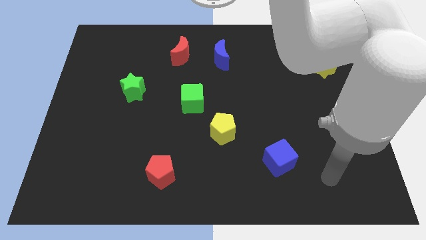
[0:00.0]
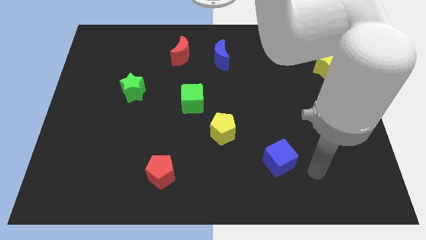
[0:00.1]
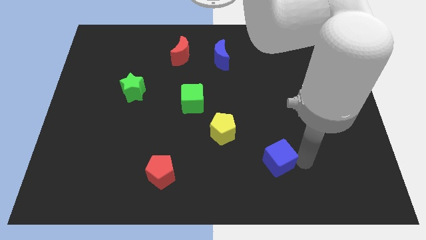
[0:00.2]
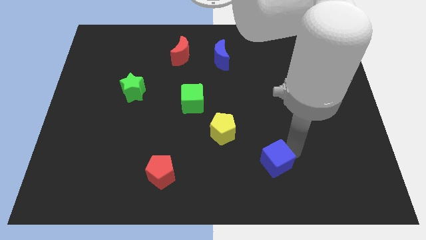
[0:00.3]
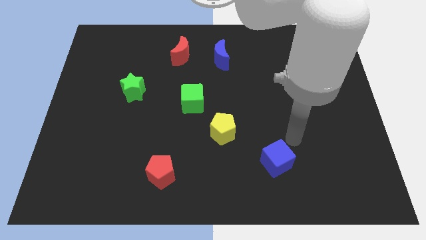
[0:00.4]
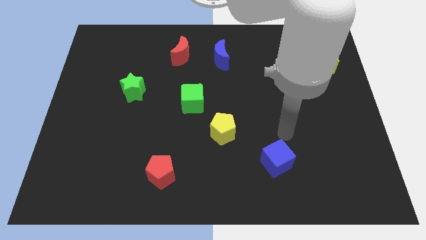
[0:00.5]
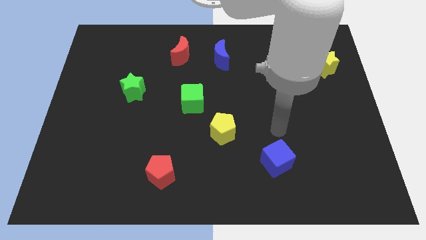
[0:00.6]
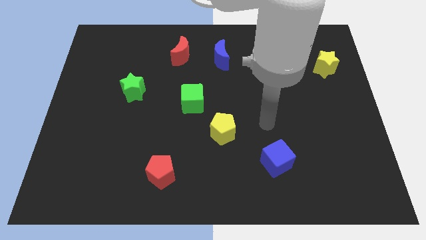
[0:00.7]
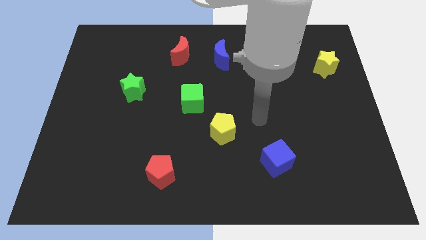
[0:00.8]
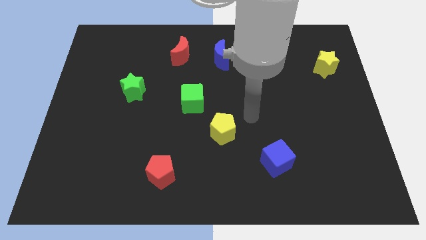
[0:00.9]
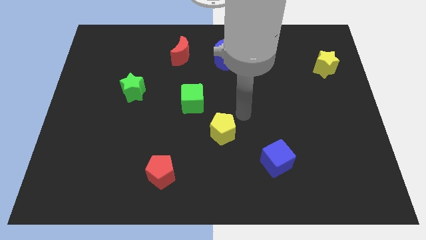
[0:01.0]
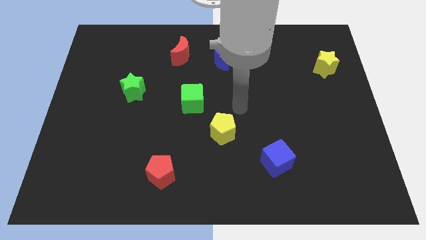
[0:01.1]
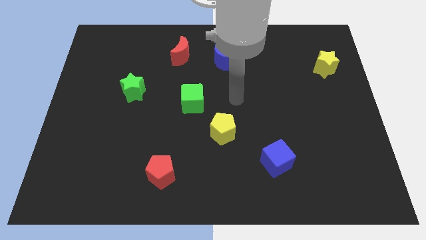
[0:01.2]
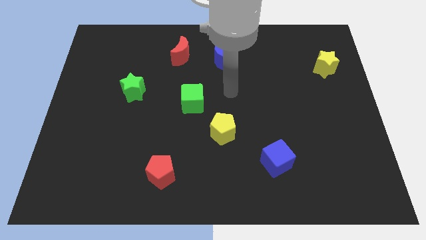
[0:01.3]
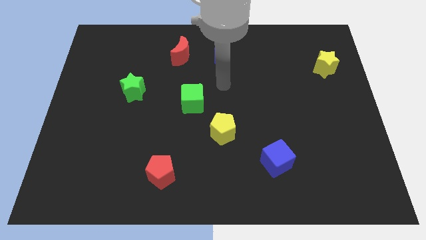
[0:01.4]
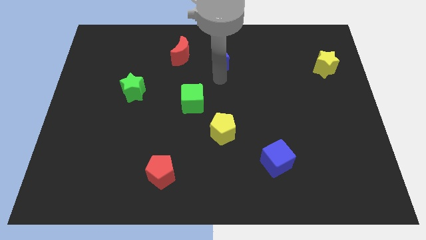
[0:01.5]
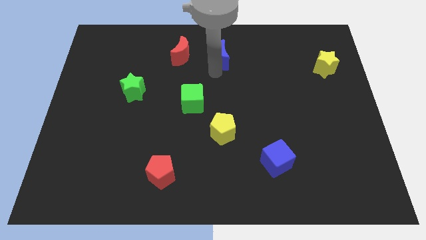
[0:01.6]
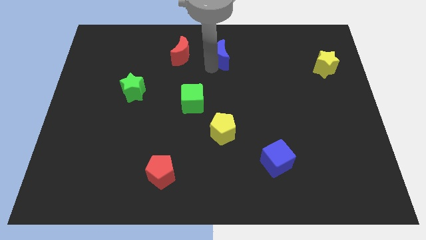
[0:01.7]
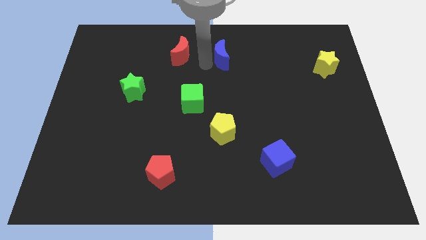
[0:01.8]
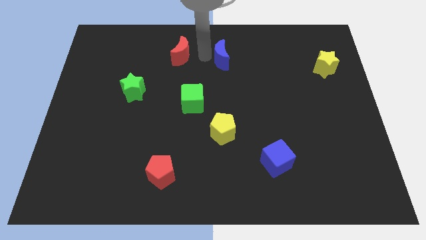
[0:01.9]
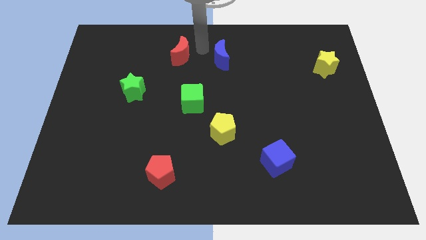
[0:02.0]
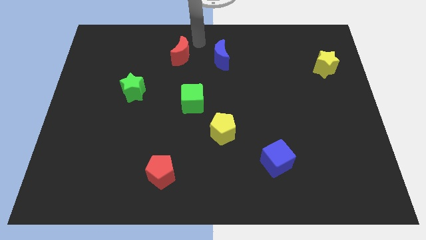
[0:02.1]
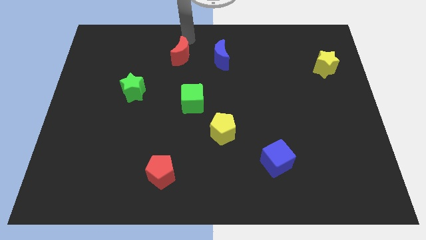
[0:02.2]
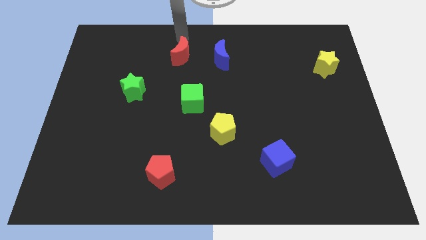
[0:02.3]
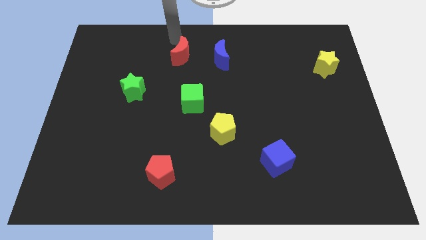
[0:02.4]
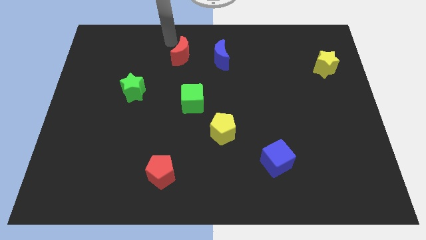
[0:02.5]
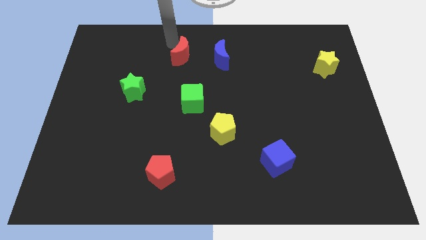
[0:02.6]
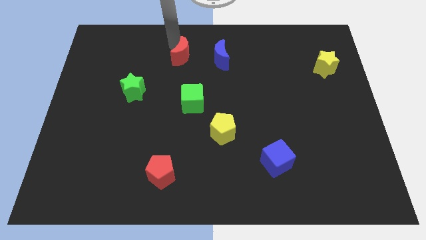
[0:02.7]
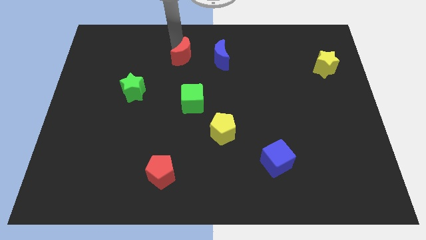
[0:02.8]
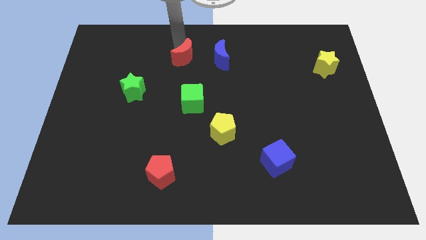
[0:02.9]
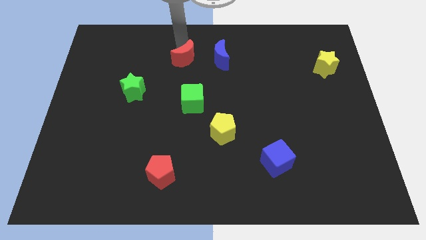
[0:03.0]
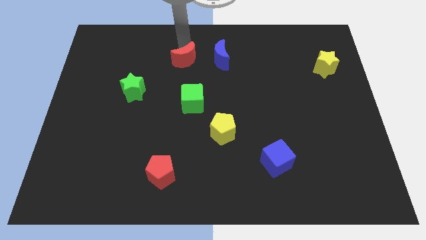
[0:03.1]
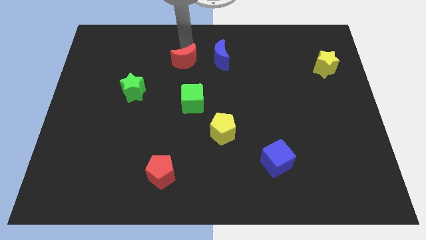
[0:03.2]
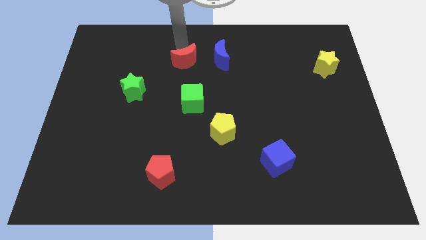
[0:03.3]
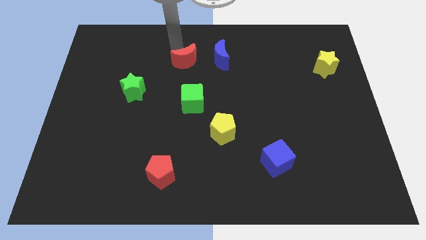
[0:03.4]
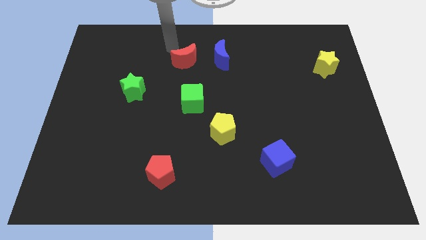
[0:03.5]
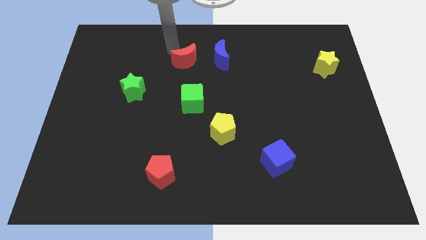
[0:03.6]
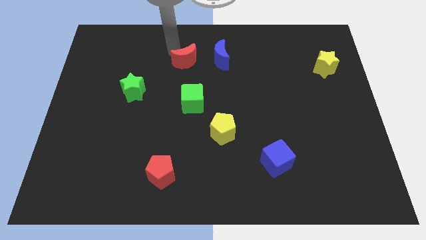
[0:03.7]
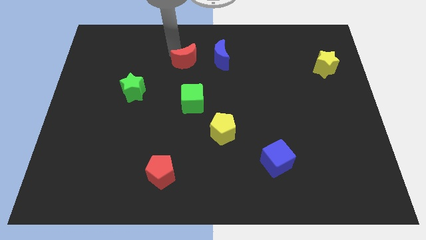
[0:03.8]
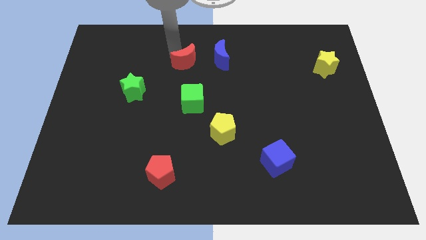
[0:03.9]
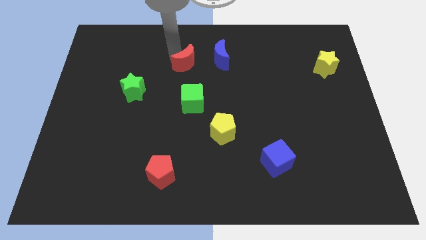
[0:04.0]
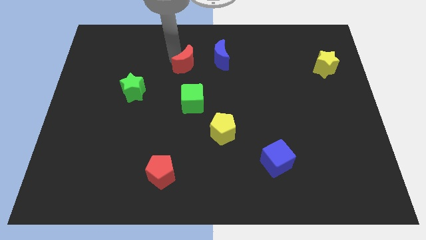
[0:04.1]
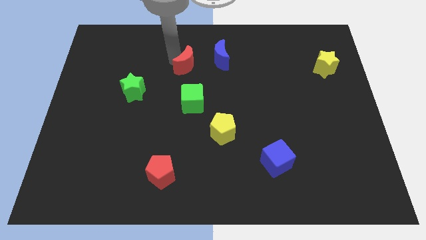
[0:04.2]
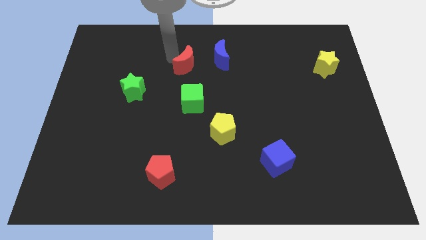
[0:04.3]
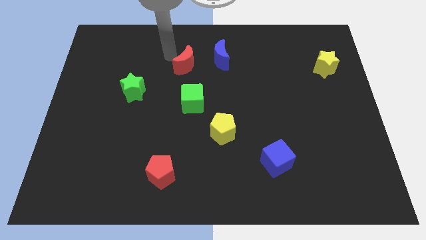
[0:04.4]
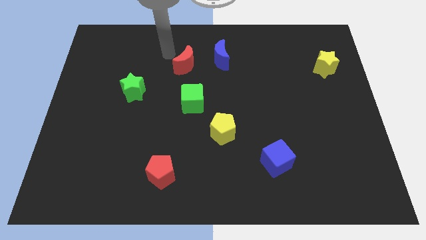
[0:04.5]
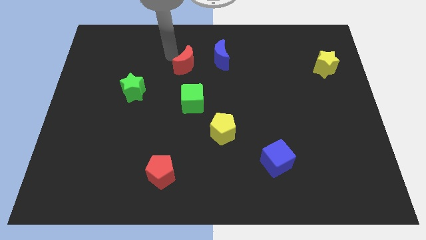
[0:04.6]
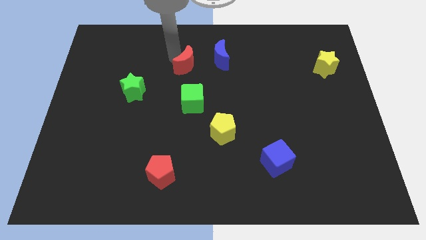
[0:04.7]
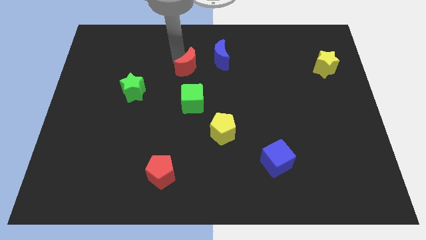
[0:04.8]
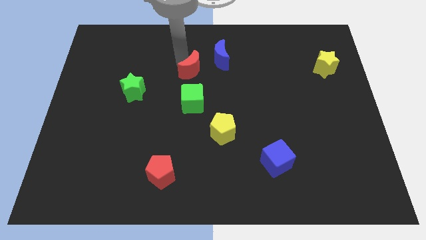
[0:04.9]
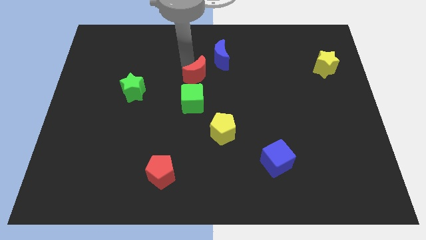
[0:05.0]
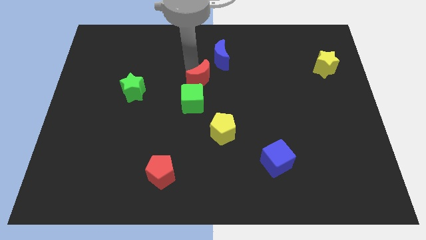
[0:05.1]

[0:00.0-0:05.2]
push the red moon to the top right of the green cube

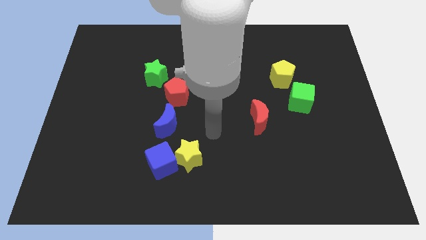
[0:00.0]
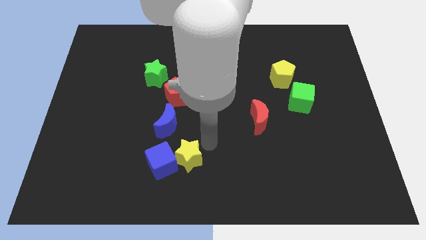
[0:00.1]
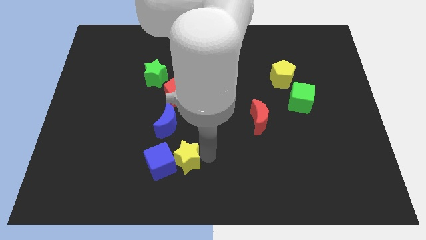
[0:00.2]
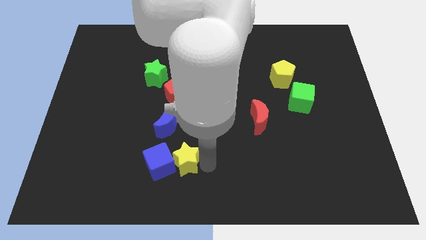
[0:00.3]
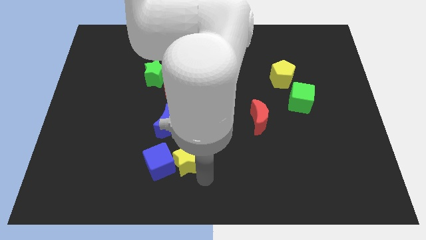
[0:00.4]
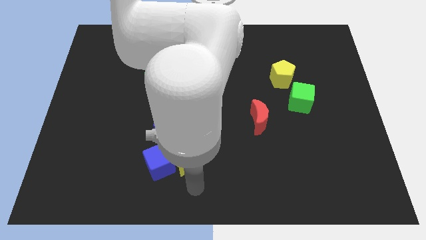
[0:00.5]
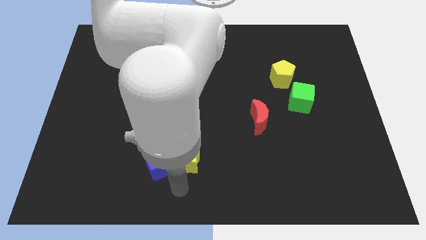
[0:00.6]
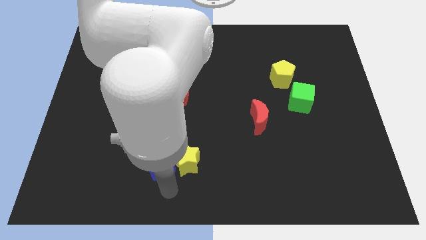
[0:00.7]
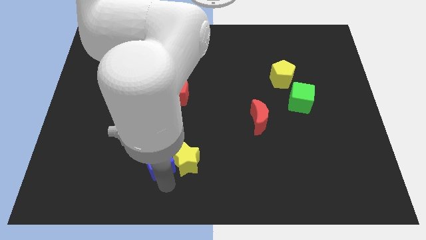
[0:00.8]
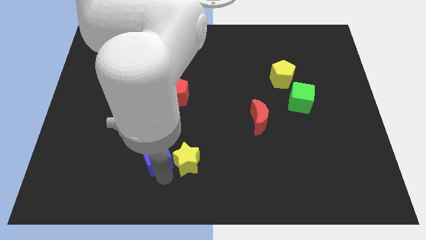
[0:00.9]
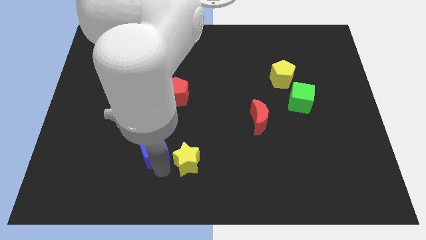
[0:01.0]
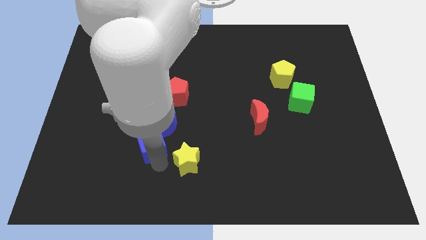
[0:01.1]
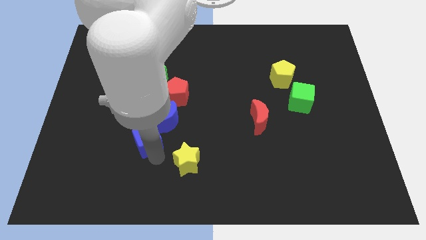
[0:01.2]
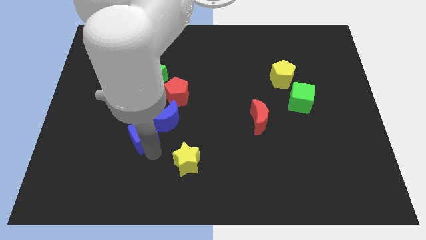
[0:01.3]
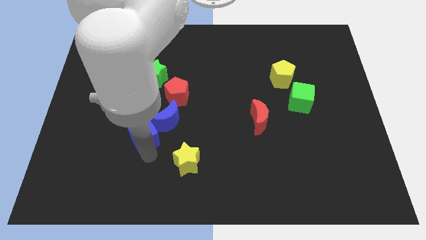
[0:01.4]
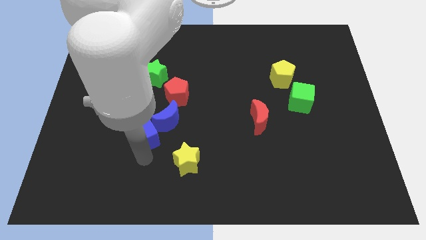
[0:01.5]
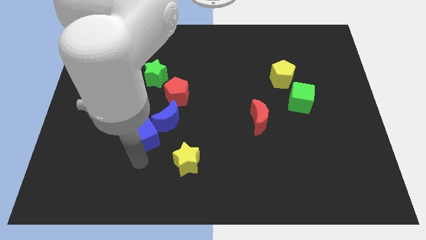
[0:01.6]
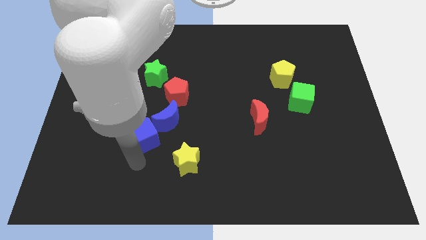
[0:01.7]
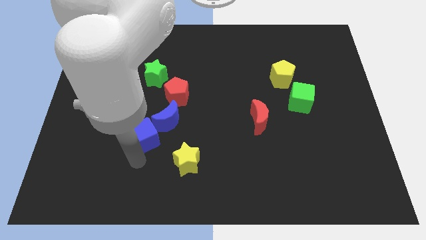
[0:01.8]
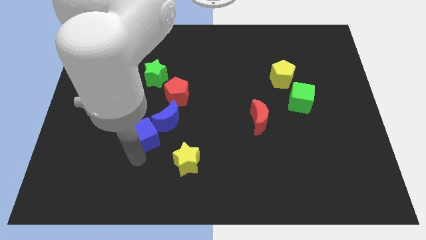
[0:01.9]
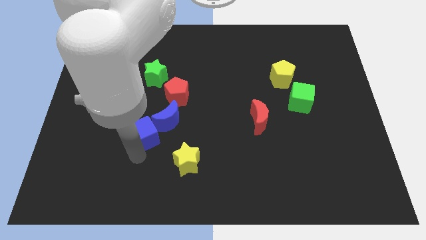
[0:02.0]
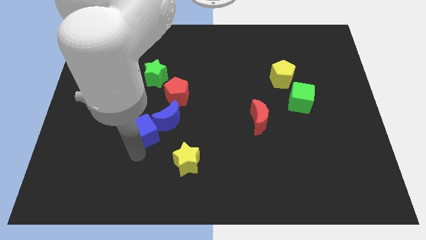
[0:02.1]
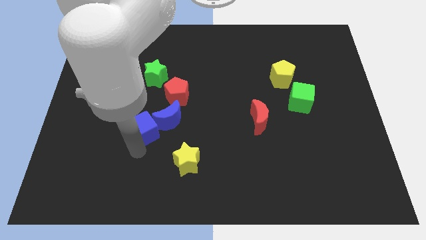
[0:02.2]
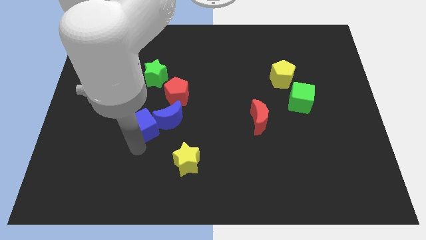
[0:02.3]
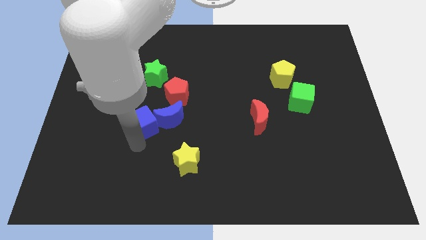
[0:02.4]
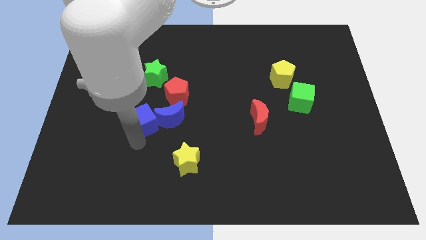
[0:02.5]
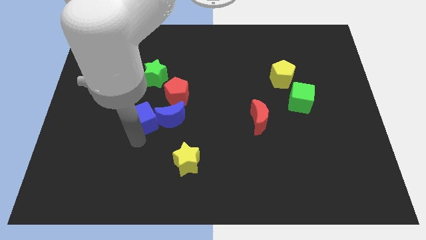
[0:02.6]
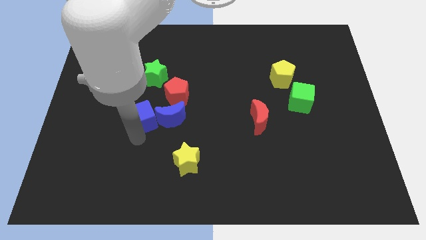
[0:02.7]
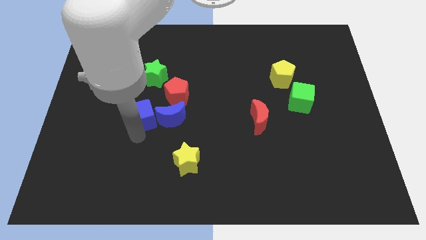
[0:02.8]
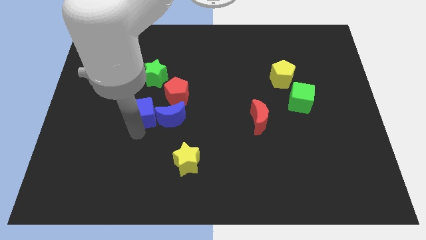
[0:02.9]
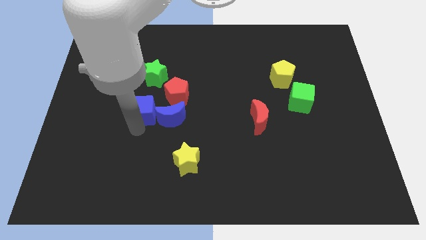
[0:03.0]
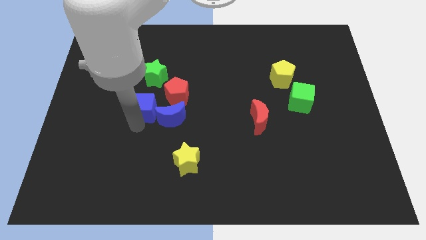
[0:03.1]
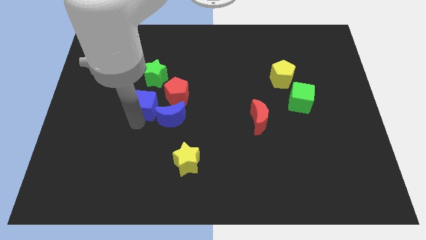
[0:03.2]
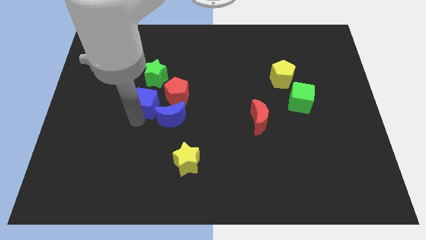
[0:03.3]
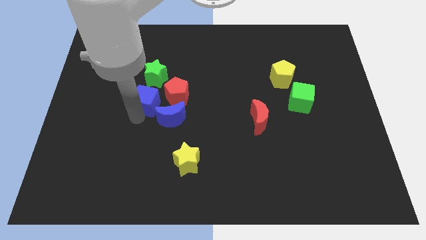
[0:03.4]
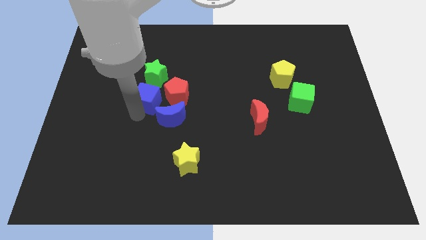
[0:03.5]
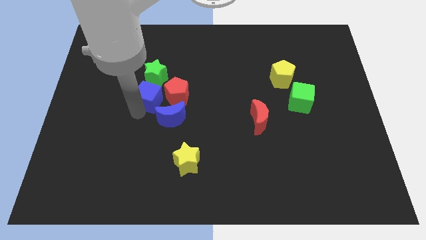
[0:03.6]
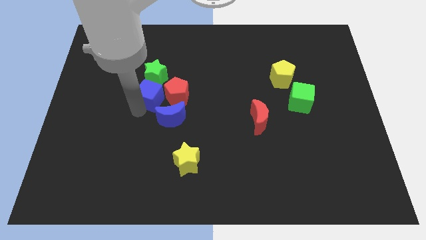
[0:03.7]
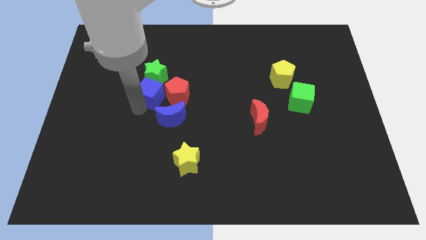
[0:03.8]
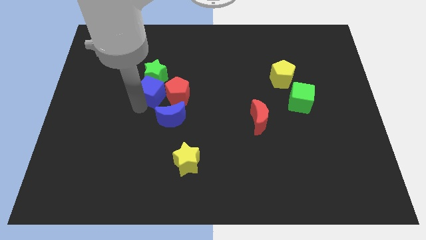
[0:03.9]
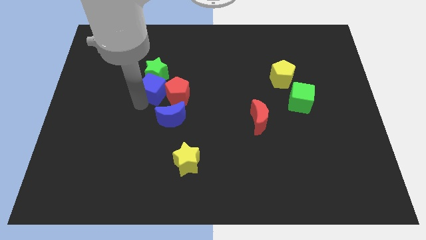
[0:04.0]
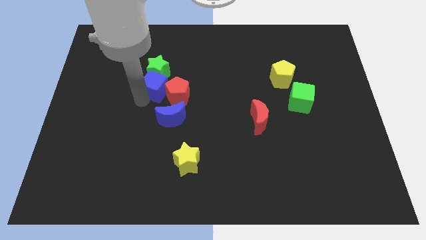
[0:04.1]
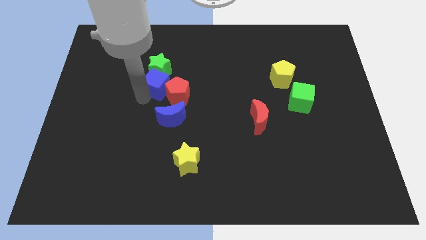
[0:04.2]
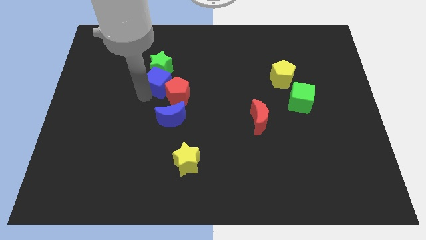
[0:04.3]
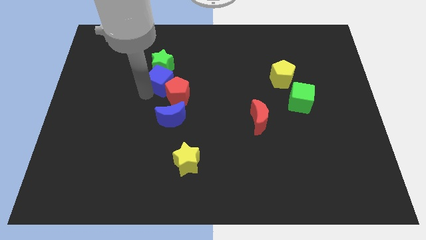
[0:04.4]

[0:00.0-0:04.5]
push the blue cube to the top of the red pentagon
